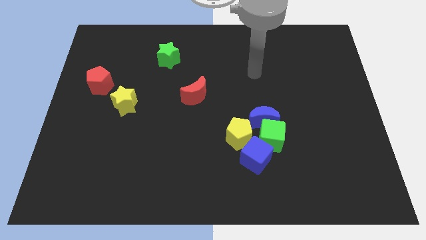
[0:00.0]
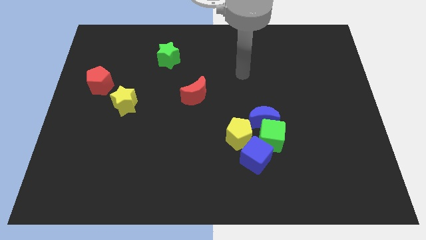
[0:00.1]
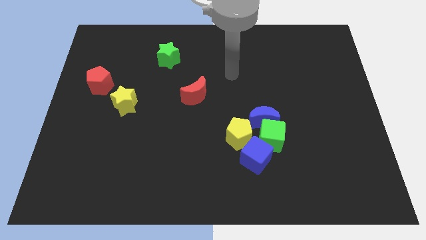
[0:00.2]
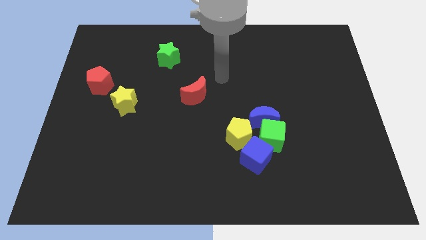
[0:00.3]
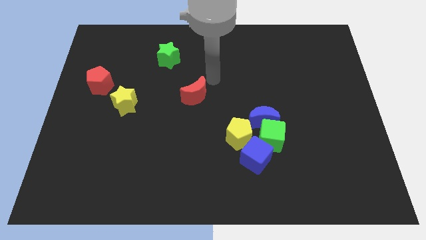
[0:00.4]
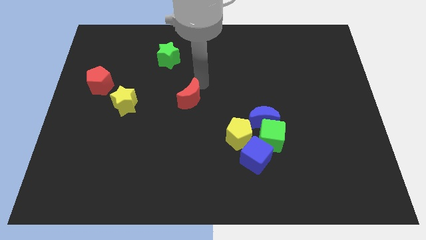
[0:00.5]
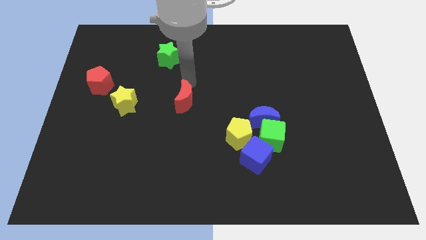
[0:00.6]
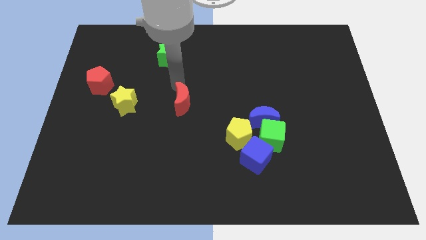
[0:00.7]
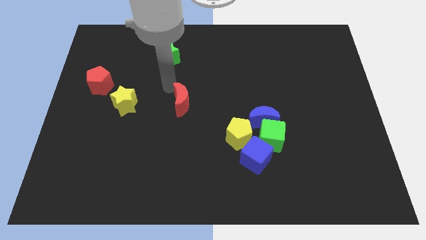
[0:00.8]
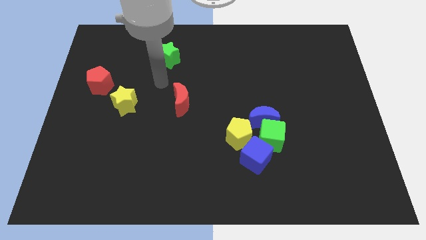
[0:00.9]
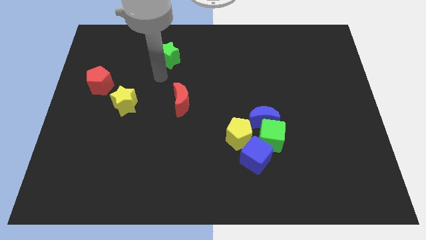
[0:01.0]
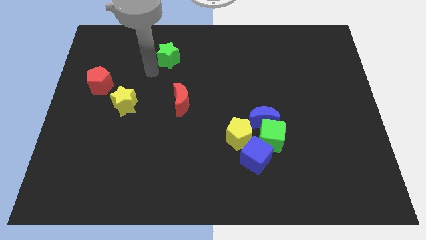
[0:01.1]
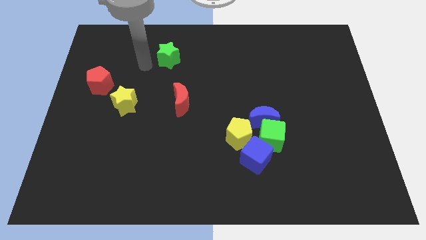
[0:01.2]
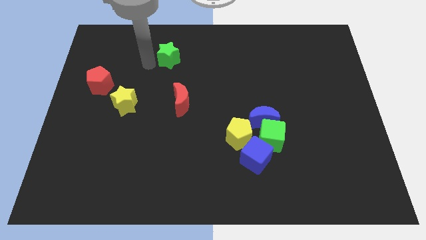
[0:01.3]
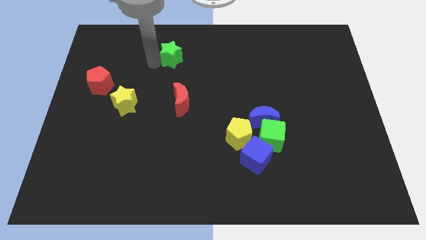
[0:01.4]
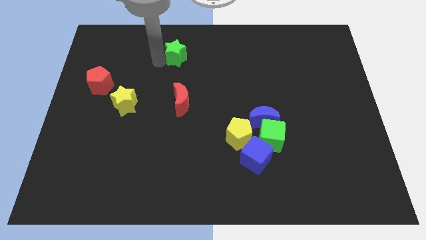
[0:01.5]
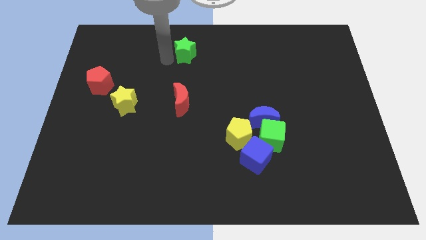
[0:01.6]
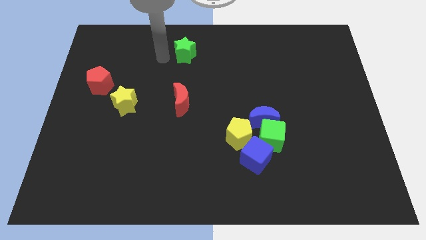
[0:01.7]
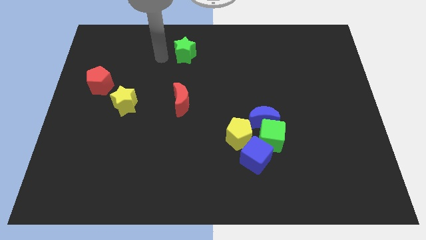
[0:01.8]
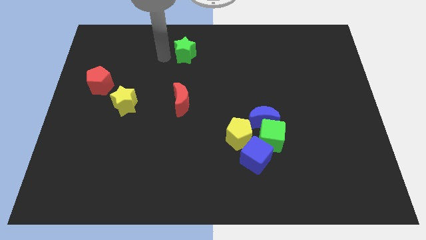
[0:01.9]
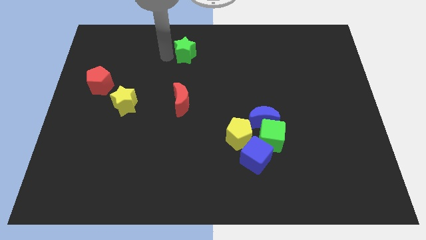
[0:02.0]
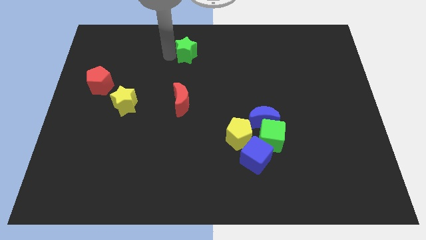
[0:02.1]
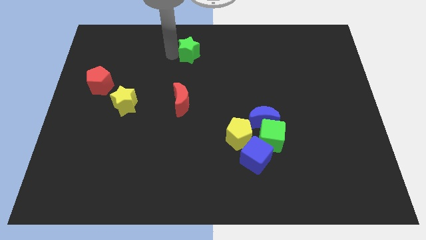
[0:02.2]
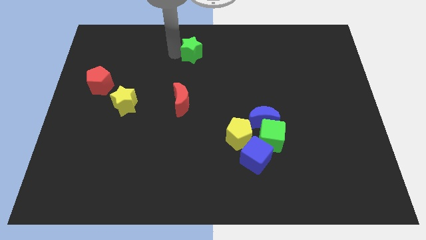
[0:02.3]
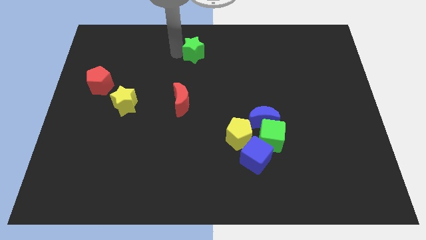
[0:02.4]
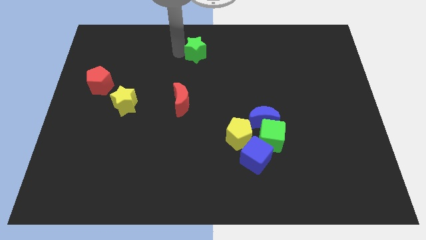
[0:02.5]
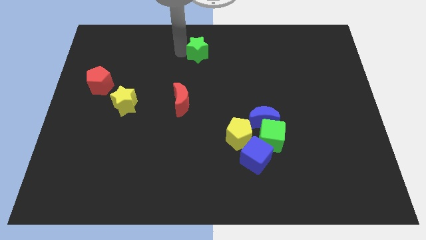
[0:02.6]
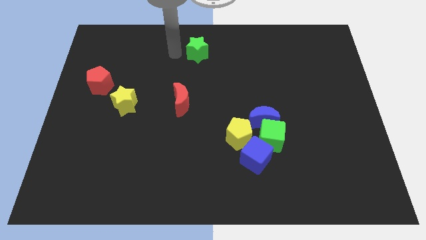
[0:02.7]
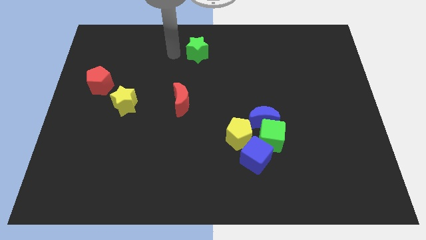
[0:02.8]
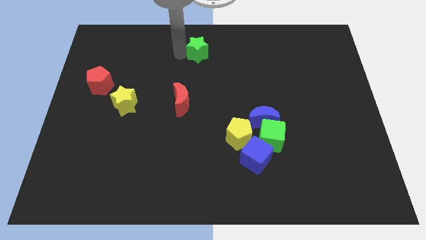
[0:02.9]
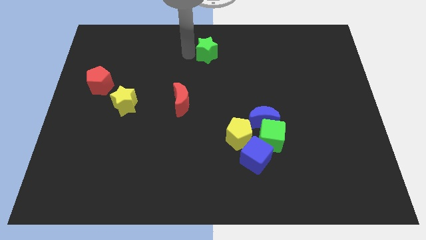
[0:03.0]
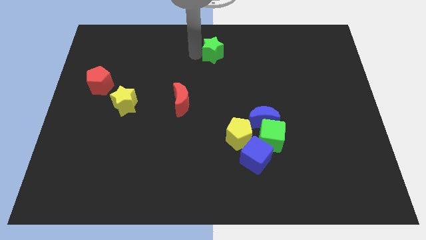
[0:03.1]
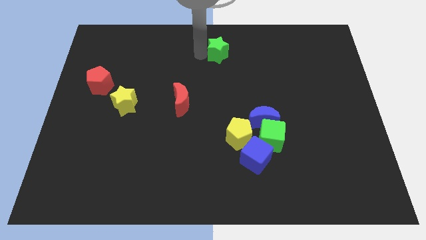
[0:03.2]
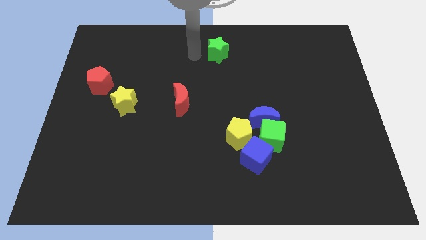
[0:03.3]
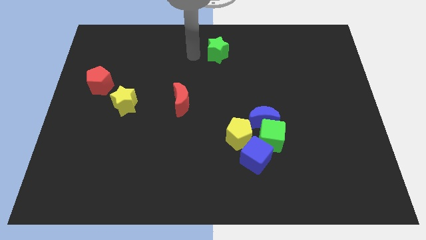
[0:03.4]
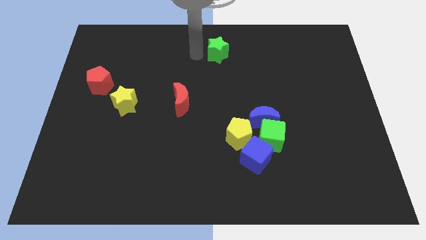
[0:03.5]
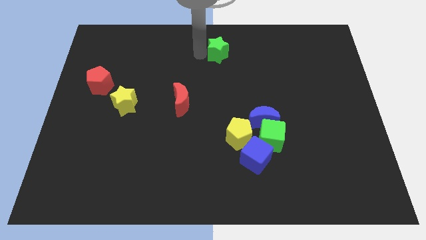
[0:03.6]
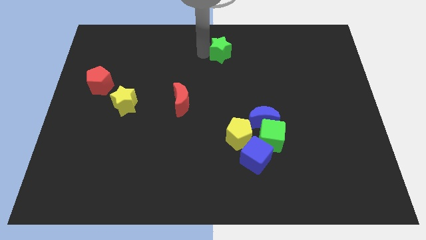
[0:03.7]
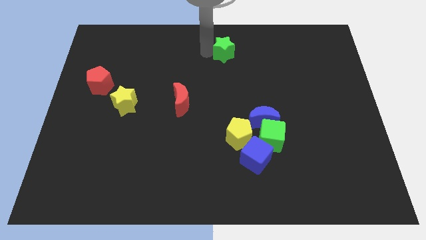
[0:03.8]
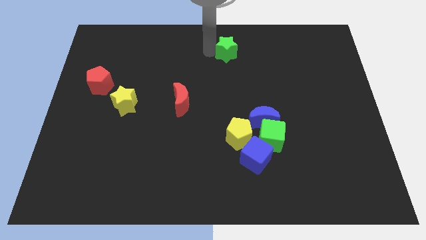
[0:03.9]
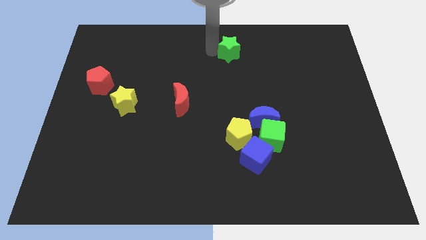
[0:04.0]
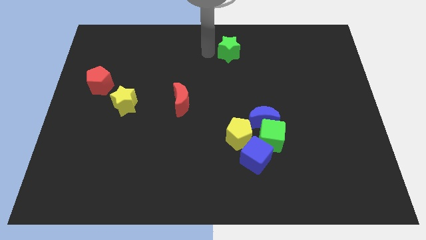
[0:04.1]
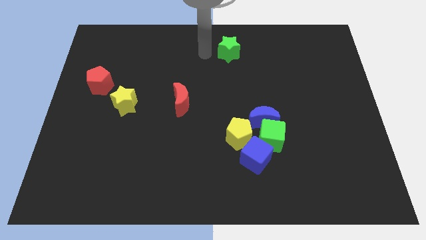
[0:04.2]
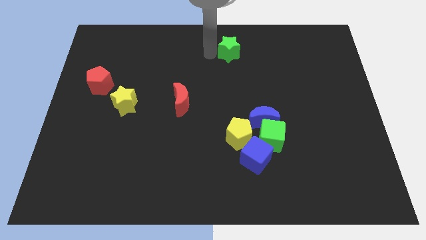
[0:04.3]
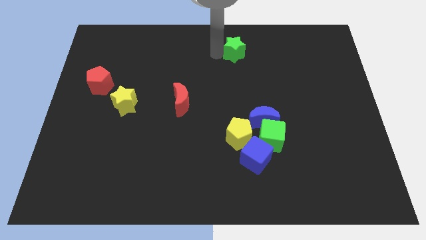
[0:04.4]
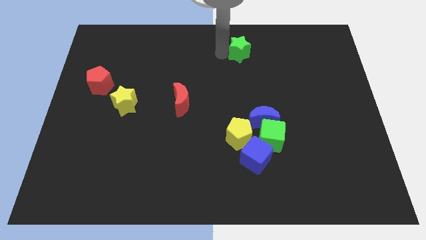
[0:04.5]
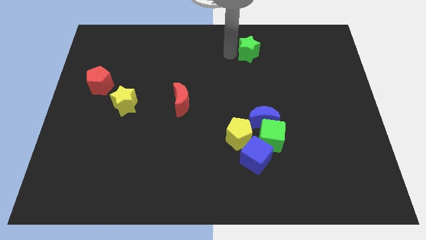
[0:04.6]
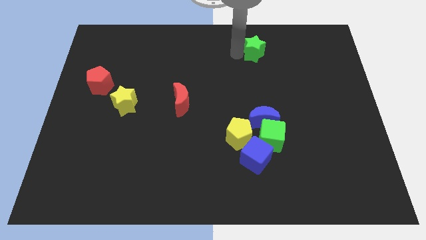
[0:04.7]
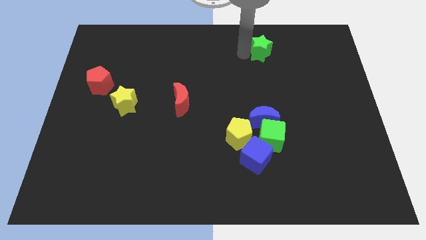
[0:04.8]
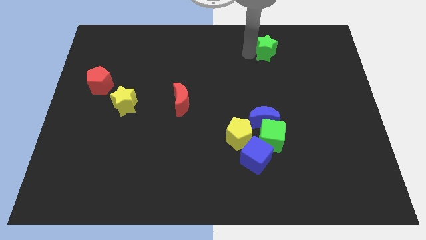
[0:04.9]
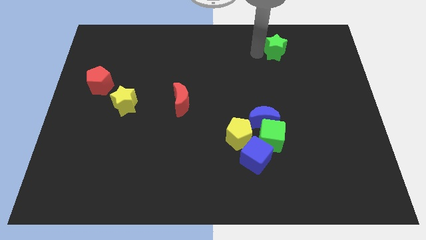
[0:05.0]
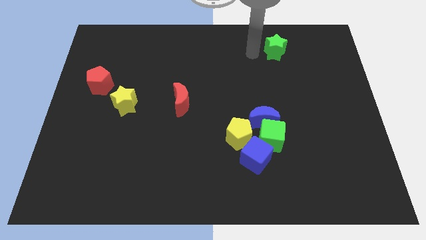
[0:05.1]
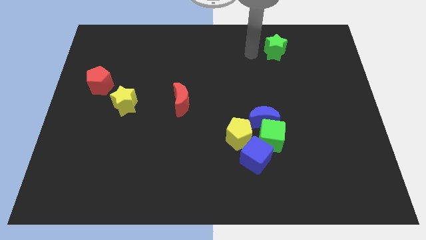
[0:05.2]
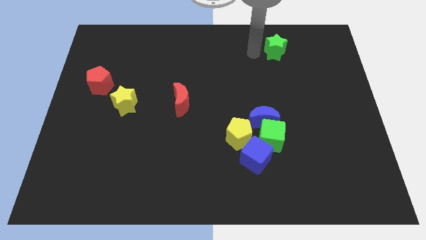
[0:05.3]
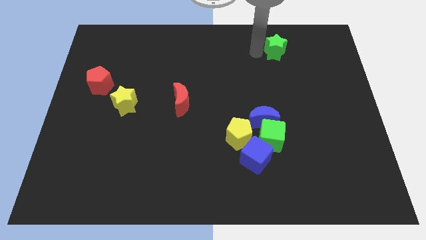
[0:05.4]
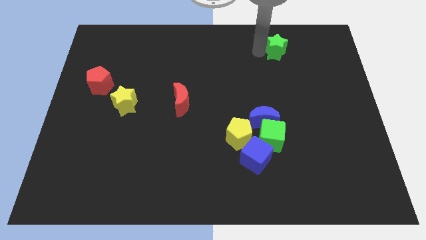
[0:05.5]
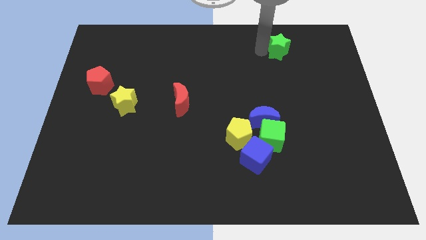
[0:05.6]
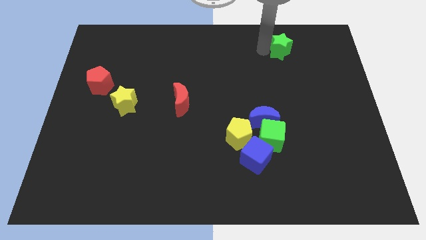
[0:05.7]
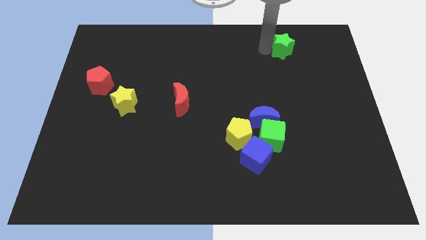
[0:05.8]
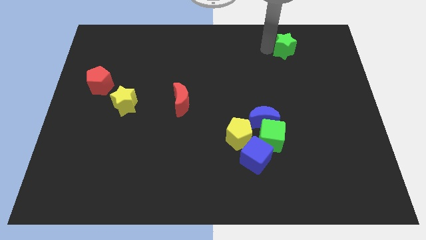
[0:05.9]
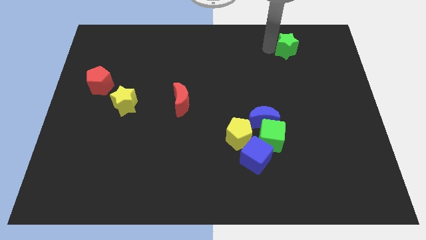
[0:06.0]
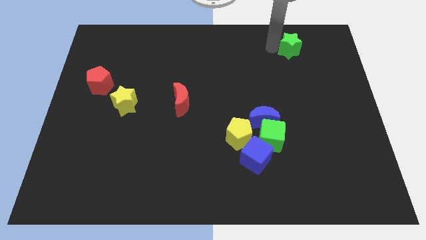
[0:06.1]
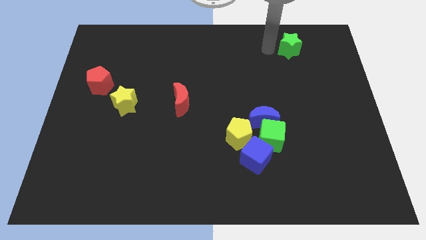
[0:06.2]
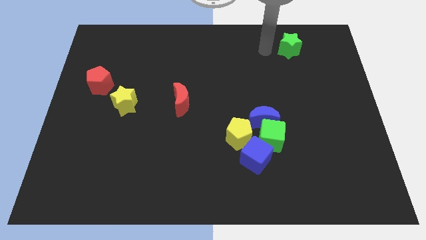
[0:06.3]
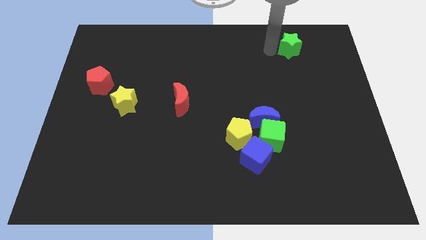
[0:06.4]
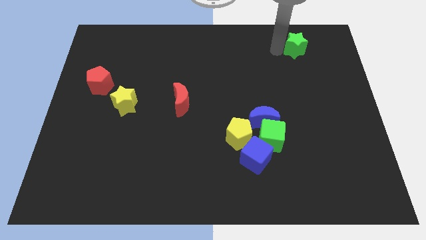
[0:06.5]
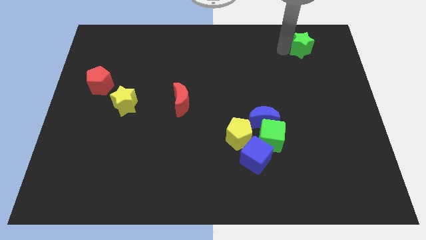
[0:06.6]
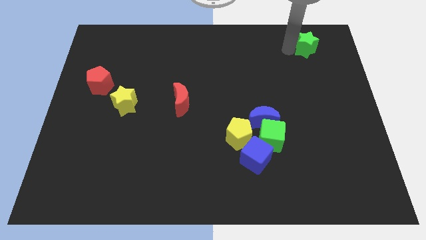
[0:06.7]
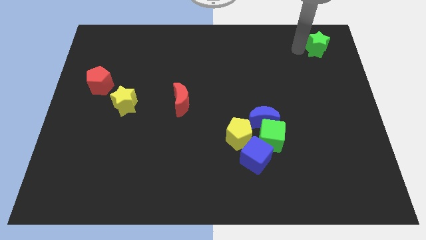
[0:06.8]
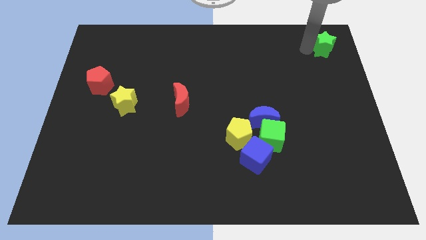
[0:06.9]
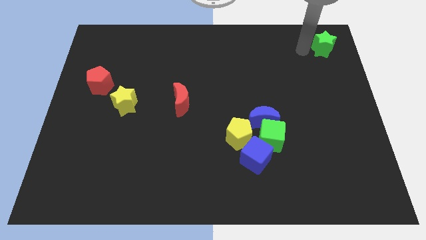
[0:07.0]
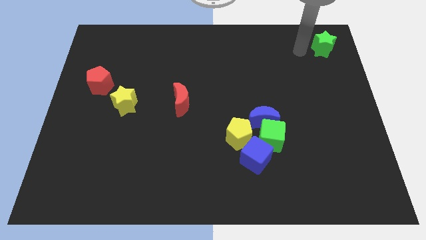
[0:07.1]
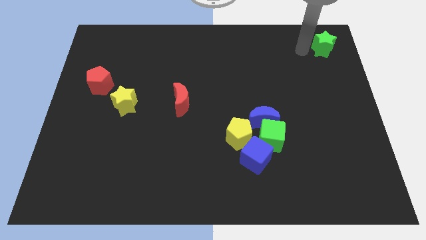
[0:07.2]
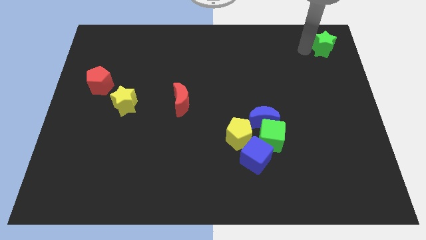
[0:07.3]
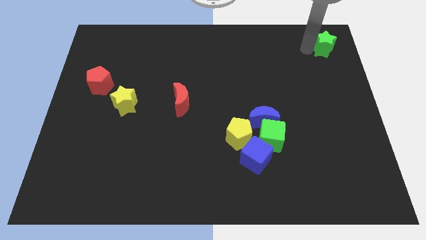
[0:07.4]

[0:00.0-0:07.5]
move the green star to the top right
